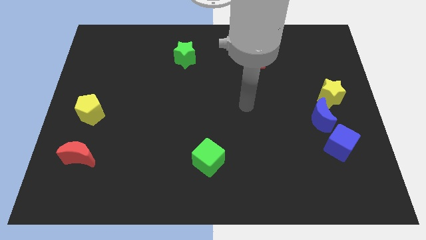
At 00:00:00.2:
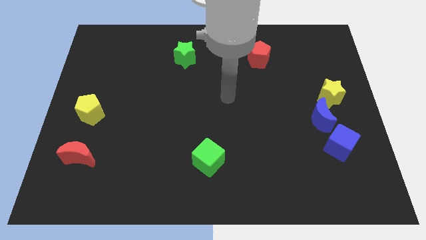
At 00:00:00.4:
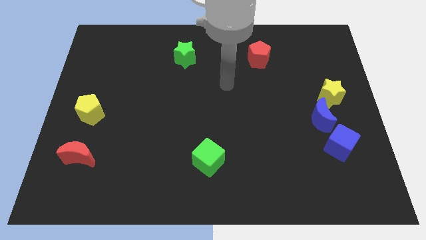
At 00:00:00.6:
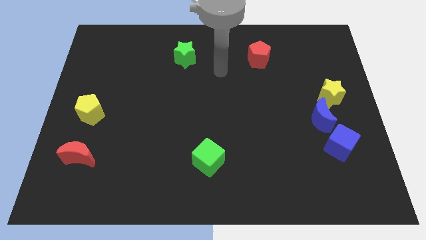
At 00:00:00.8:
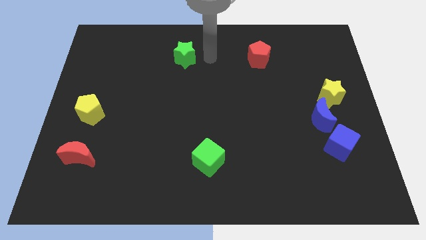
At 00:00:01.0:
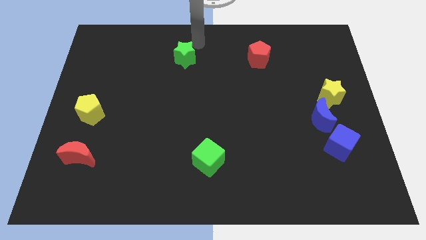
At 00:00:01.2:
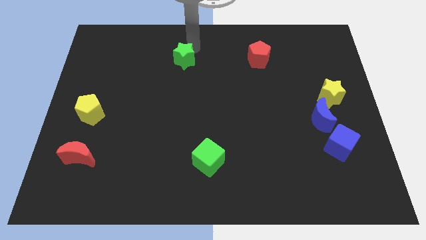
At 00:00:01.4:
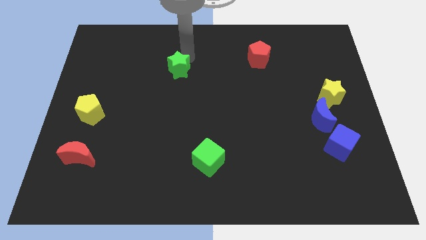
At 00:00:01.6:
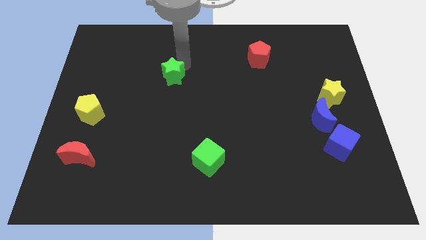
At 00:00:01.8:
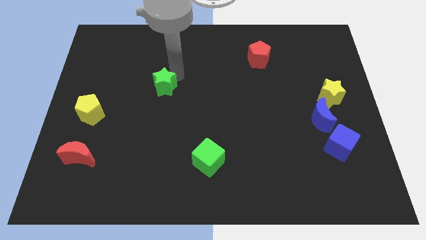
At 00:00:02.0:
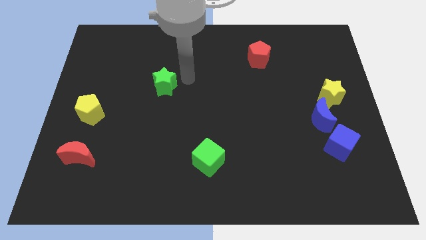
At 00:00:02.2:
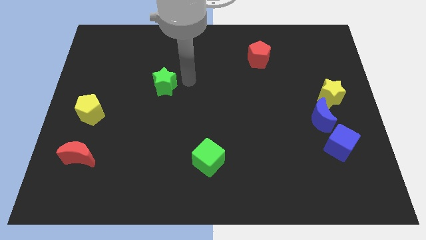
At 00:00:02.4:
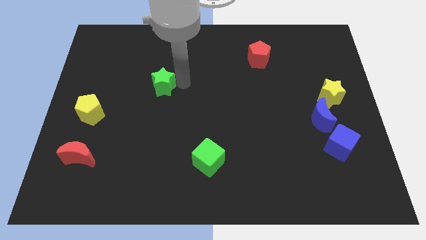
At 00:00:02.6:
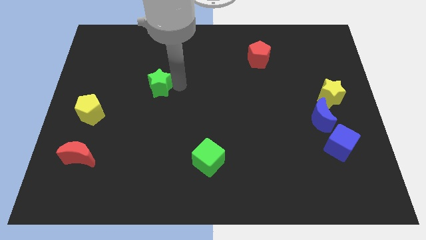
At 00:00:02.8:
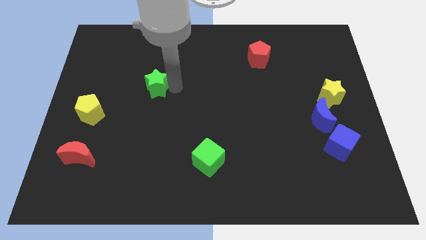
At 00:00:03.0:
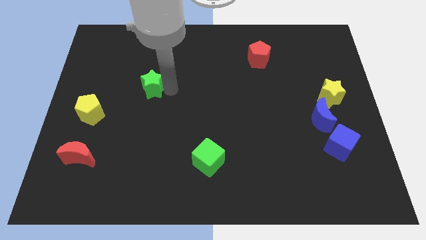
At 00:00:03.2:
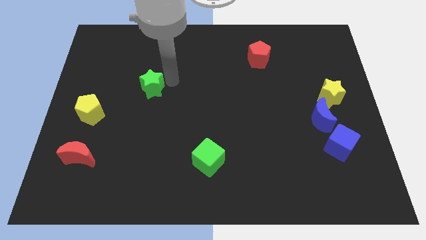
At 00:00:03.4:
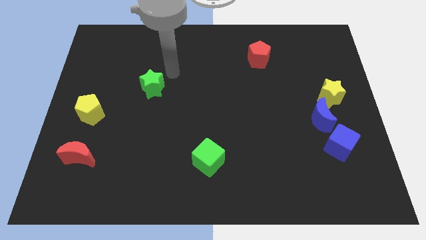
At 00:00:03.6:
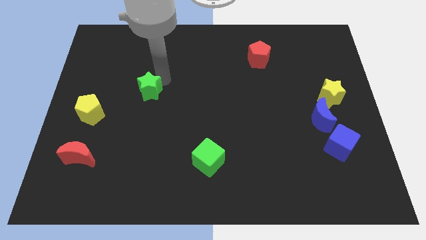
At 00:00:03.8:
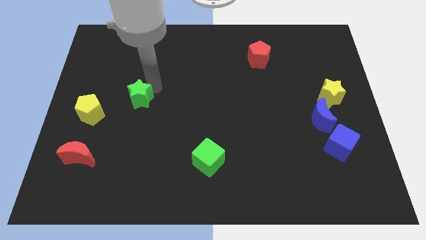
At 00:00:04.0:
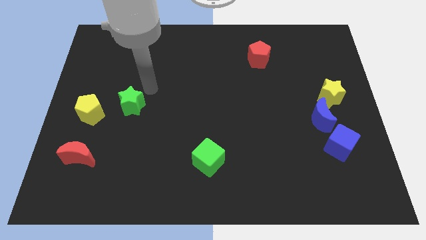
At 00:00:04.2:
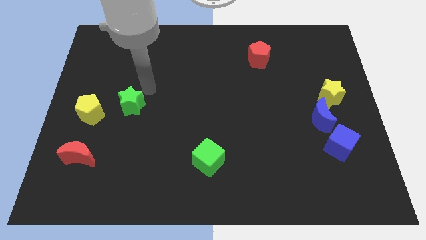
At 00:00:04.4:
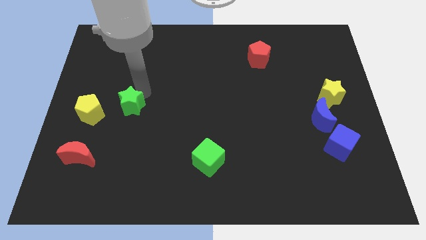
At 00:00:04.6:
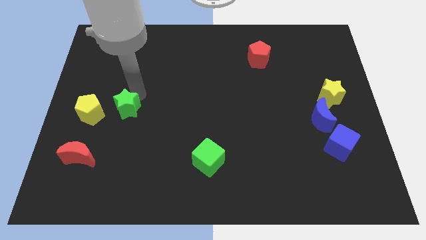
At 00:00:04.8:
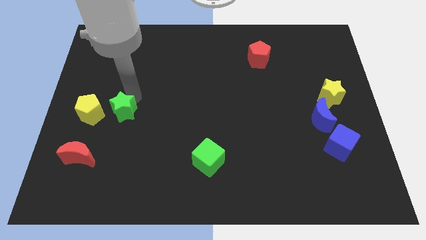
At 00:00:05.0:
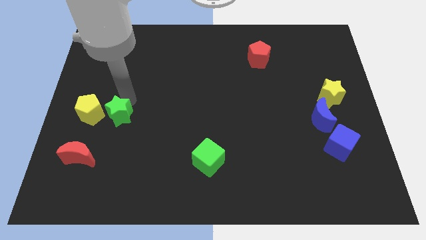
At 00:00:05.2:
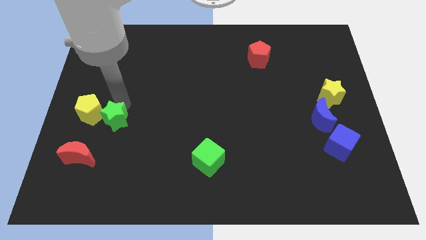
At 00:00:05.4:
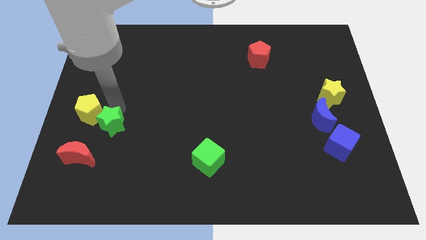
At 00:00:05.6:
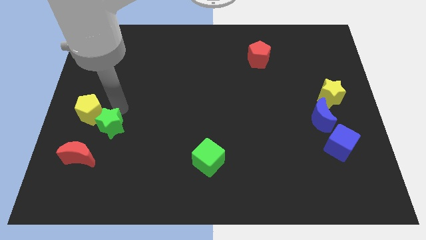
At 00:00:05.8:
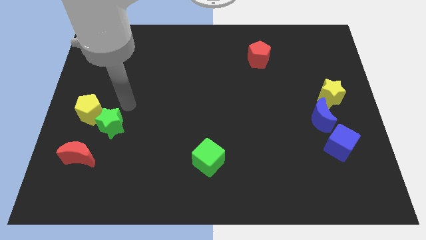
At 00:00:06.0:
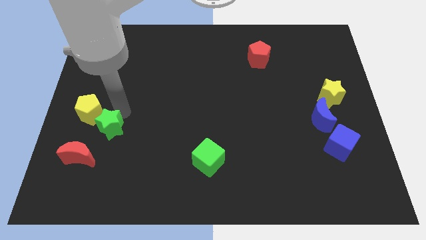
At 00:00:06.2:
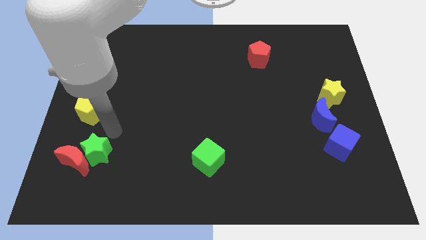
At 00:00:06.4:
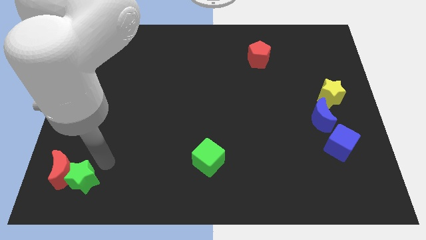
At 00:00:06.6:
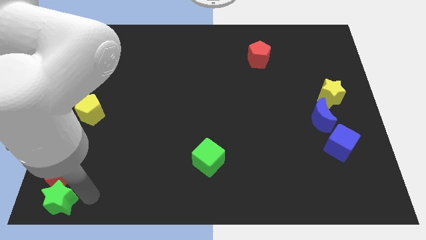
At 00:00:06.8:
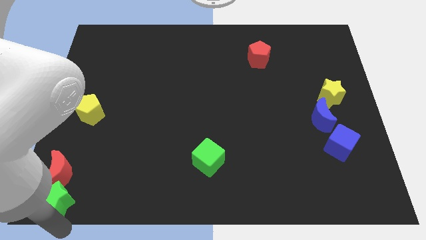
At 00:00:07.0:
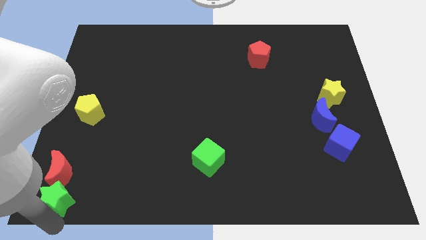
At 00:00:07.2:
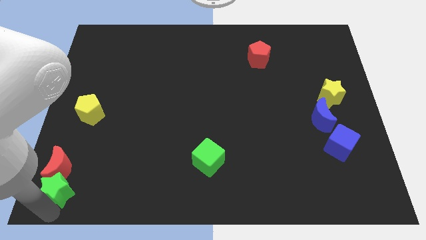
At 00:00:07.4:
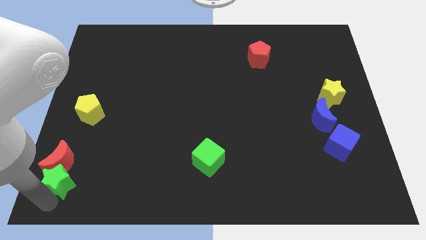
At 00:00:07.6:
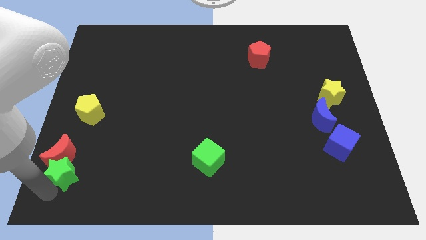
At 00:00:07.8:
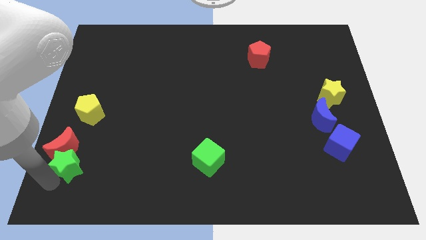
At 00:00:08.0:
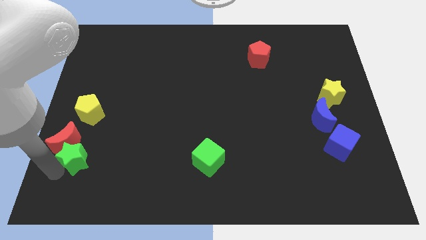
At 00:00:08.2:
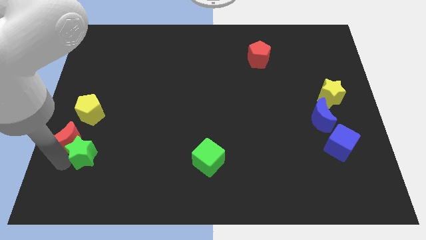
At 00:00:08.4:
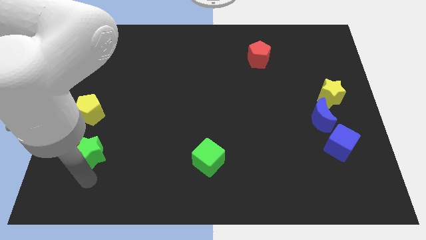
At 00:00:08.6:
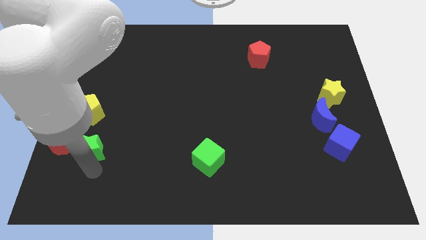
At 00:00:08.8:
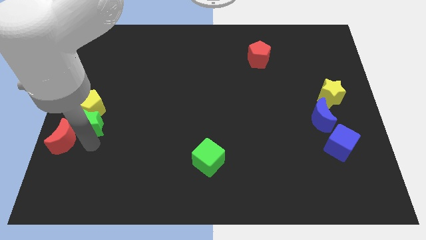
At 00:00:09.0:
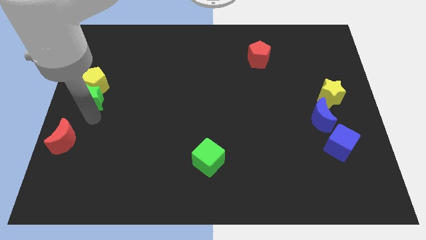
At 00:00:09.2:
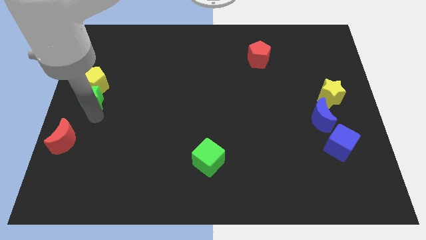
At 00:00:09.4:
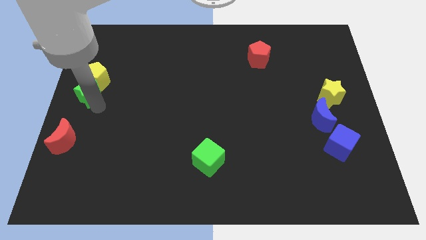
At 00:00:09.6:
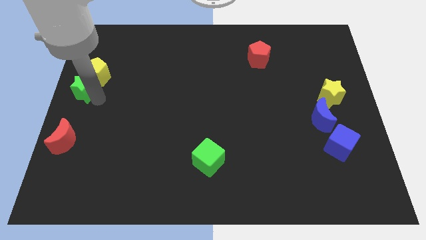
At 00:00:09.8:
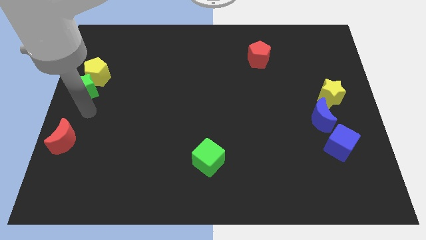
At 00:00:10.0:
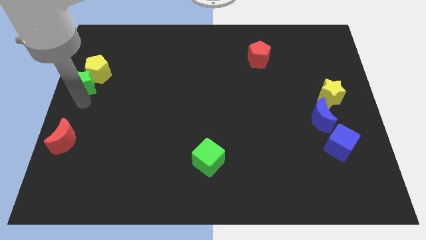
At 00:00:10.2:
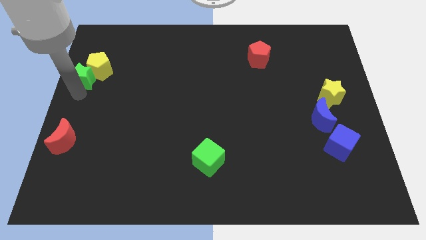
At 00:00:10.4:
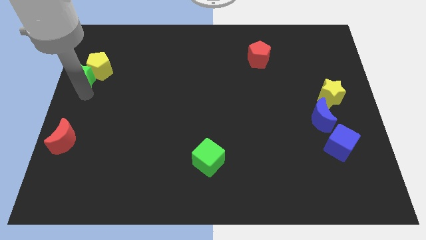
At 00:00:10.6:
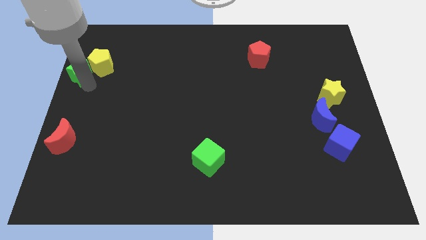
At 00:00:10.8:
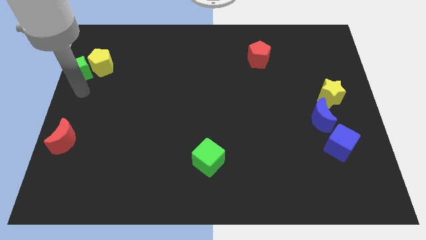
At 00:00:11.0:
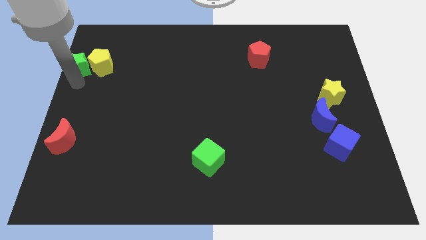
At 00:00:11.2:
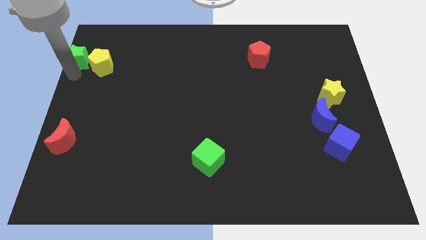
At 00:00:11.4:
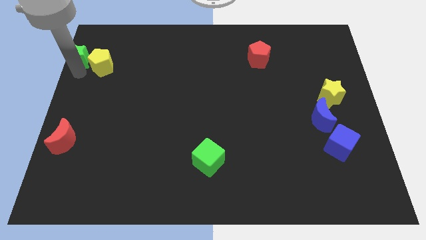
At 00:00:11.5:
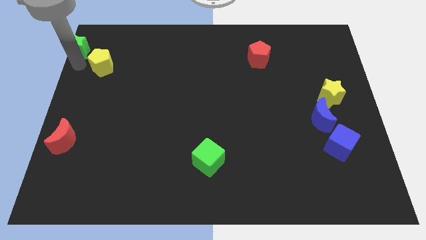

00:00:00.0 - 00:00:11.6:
slide the green star to the upper left corner
